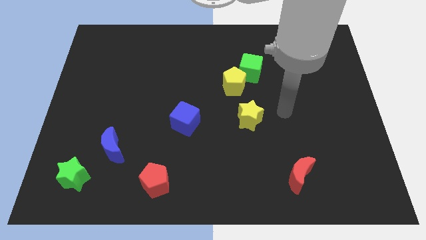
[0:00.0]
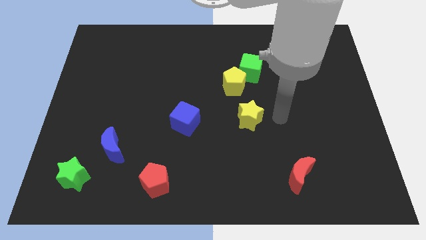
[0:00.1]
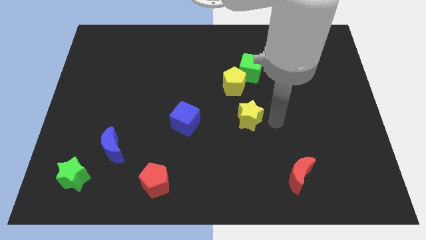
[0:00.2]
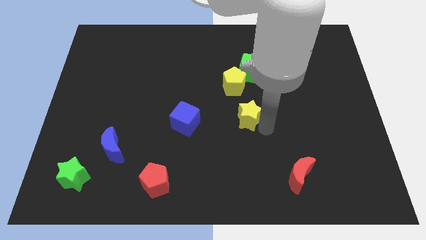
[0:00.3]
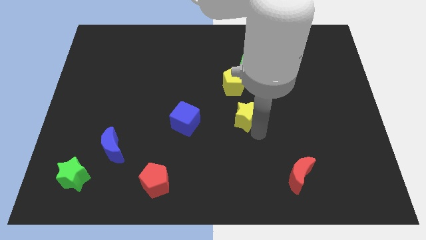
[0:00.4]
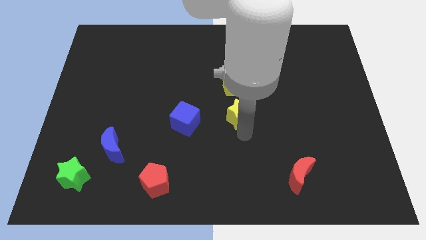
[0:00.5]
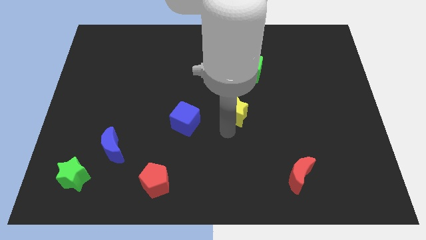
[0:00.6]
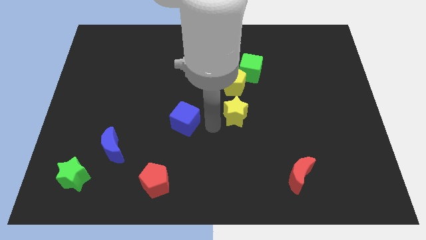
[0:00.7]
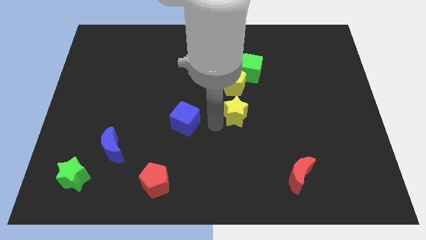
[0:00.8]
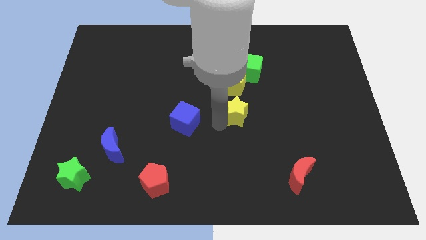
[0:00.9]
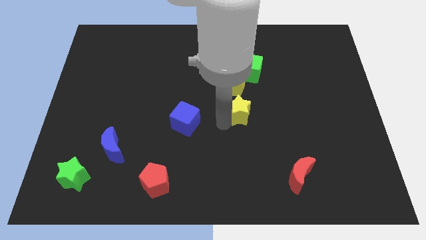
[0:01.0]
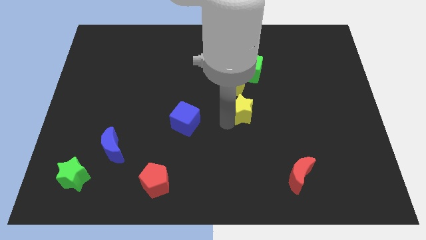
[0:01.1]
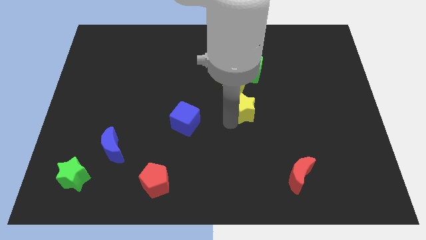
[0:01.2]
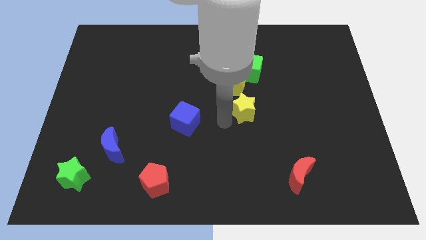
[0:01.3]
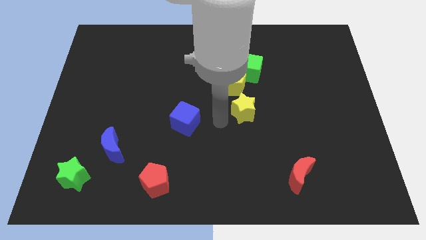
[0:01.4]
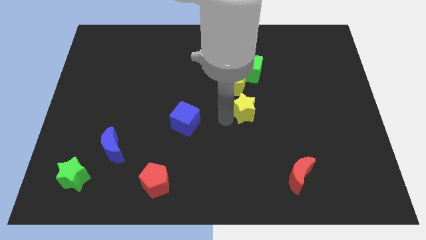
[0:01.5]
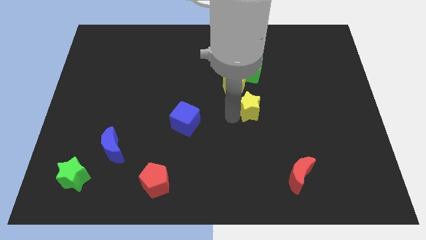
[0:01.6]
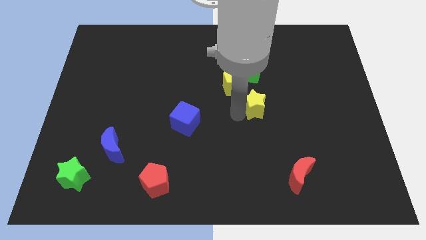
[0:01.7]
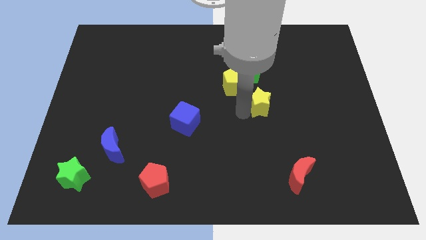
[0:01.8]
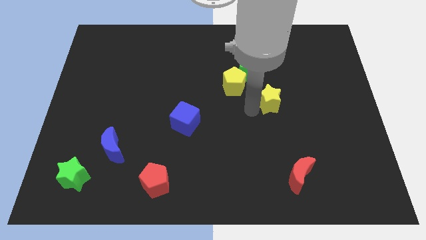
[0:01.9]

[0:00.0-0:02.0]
move the yellow star upwards and then right slightly

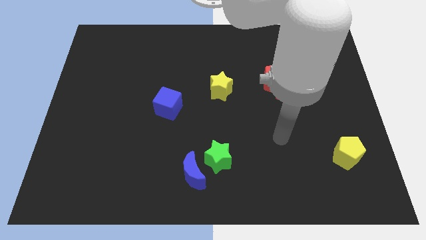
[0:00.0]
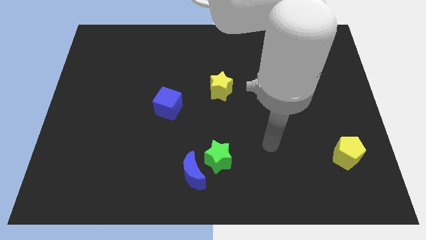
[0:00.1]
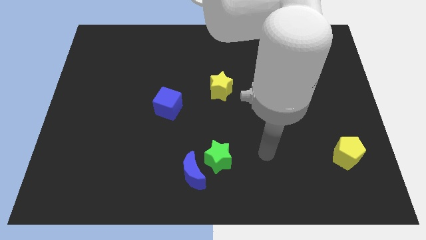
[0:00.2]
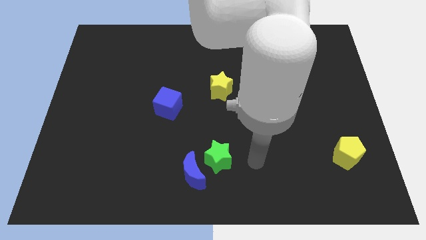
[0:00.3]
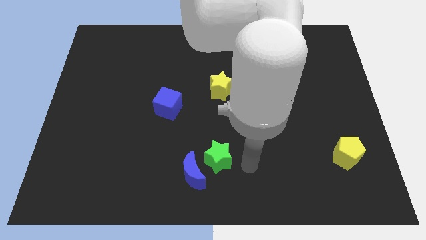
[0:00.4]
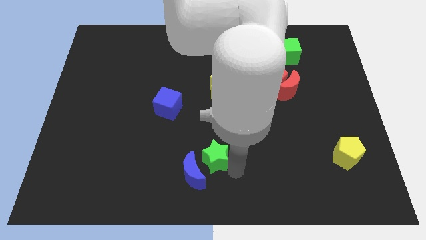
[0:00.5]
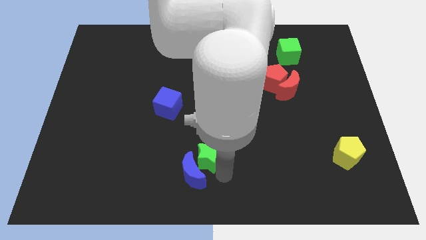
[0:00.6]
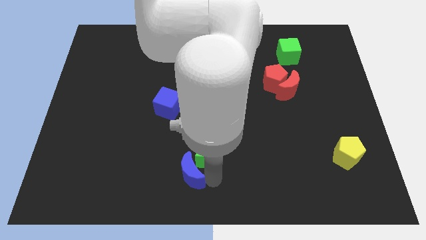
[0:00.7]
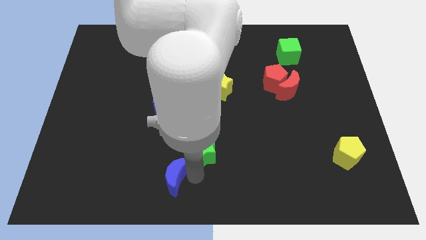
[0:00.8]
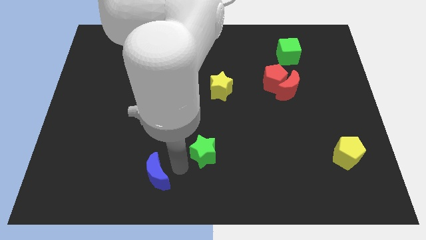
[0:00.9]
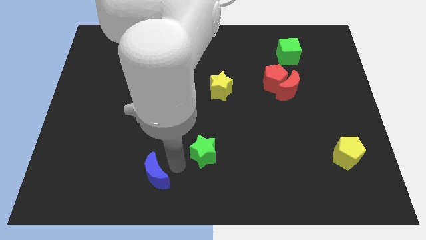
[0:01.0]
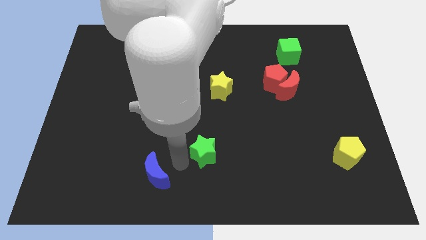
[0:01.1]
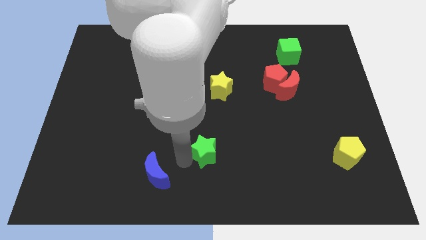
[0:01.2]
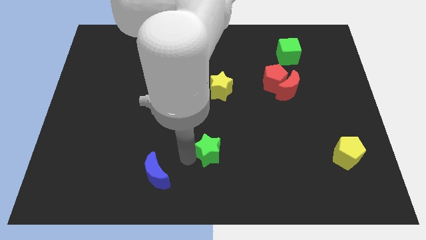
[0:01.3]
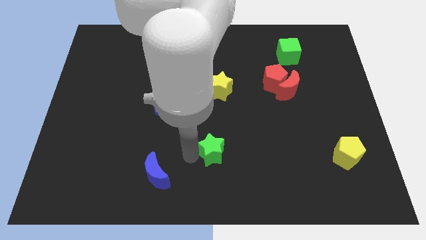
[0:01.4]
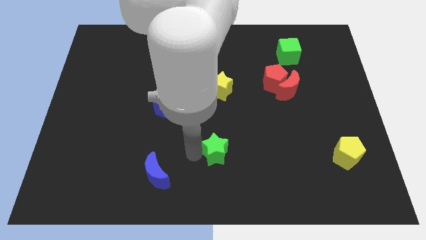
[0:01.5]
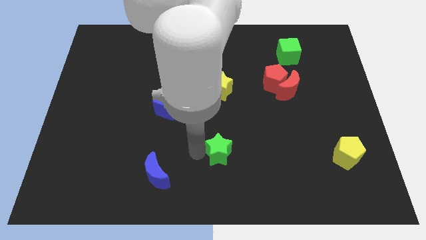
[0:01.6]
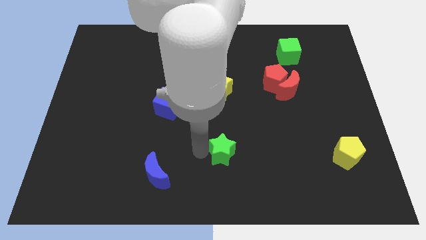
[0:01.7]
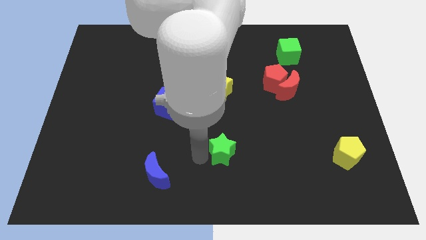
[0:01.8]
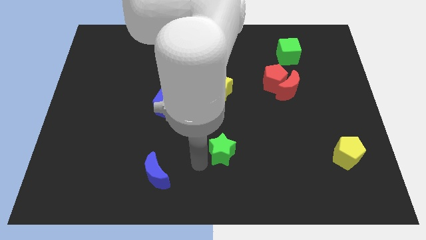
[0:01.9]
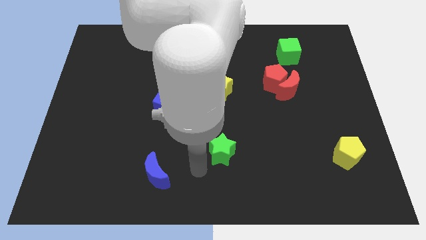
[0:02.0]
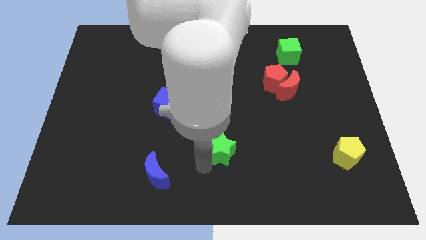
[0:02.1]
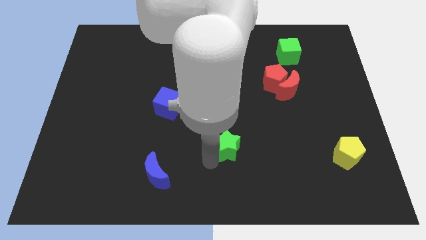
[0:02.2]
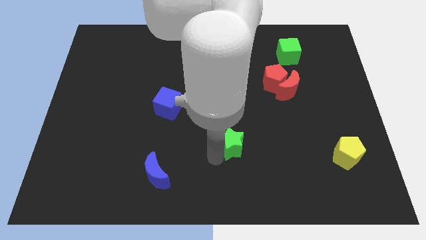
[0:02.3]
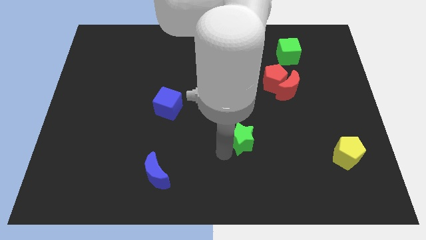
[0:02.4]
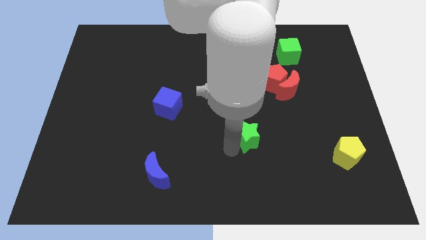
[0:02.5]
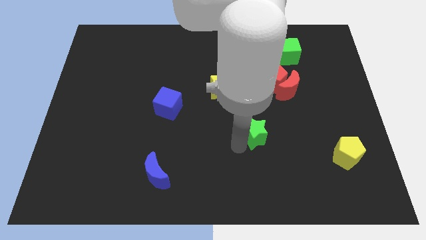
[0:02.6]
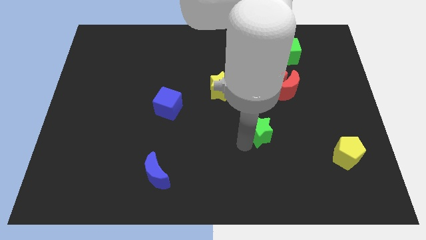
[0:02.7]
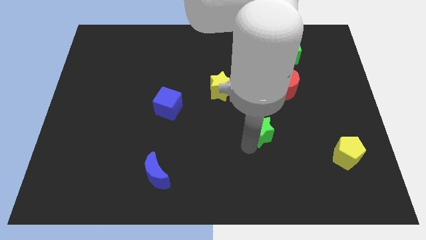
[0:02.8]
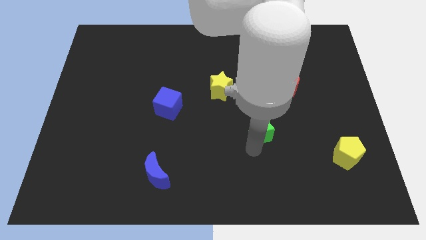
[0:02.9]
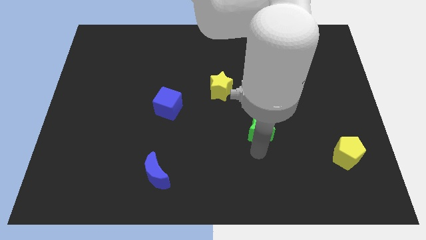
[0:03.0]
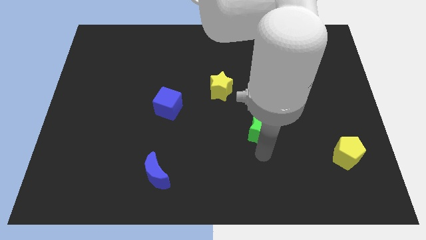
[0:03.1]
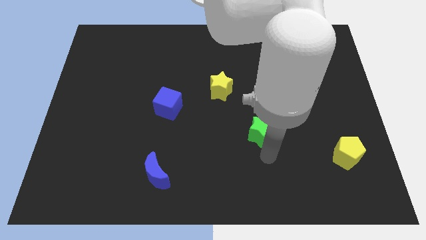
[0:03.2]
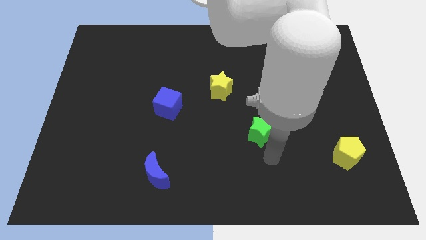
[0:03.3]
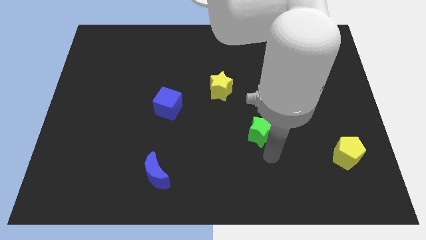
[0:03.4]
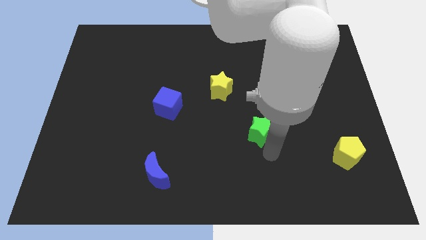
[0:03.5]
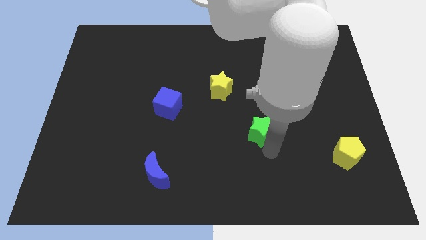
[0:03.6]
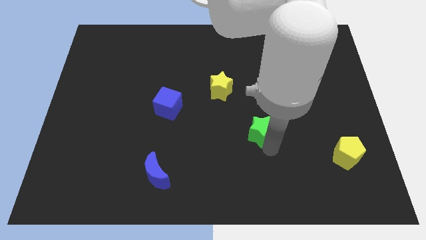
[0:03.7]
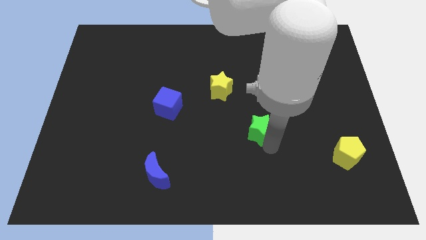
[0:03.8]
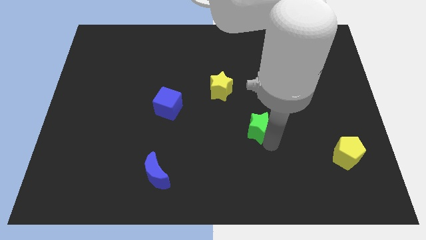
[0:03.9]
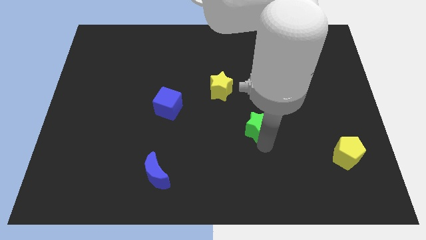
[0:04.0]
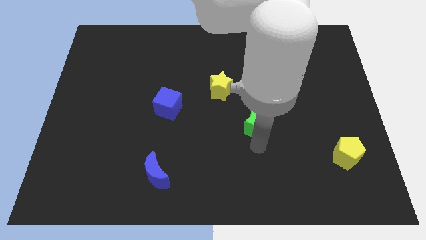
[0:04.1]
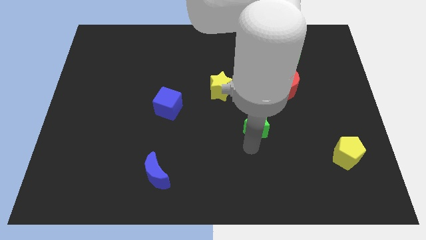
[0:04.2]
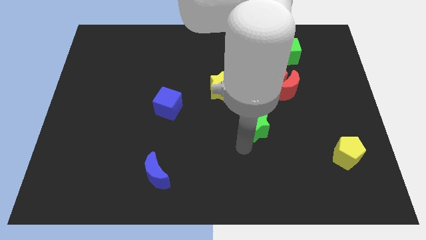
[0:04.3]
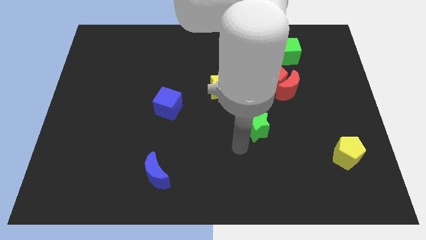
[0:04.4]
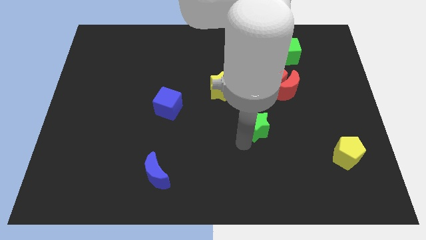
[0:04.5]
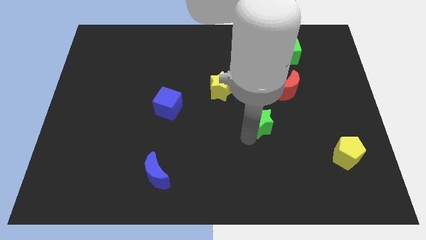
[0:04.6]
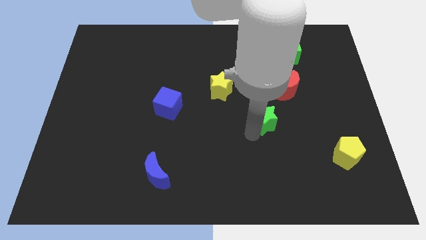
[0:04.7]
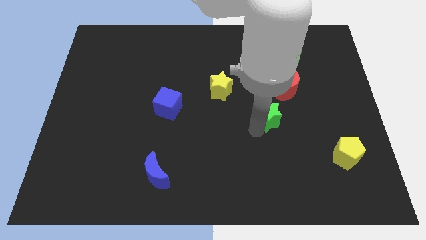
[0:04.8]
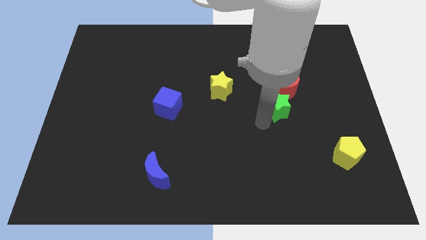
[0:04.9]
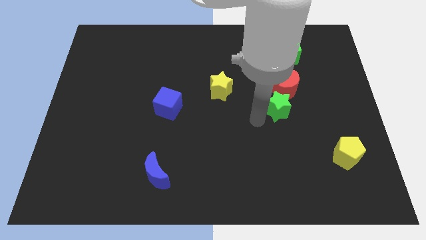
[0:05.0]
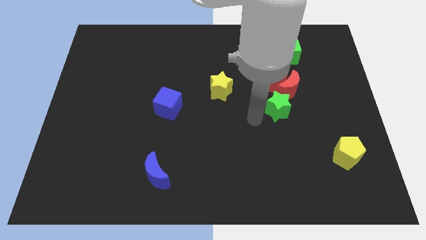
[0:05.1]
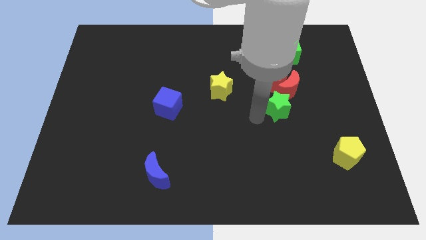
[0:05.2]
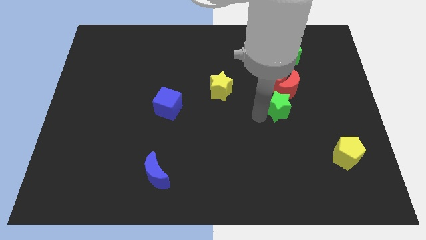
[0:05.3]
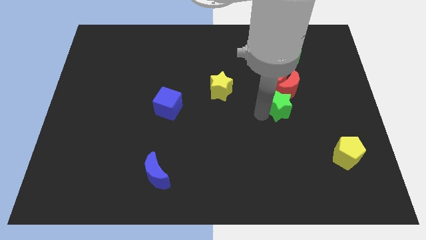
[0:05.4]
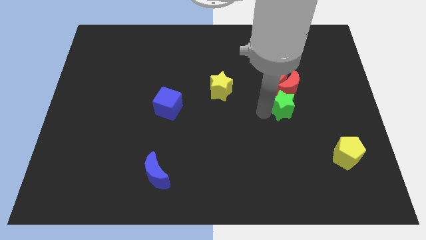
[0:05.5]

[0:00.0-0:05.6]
push the green star diagonally up and to the right

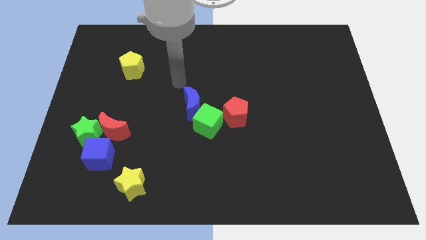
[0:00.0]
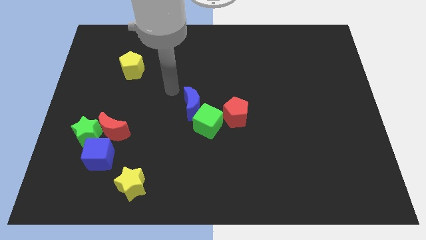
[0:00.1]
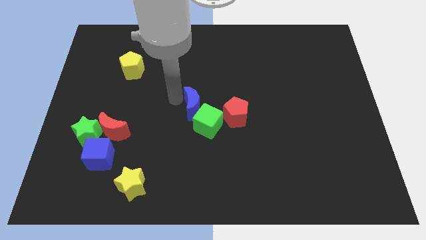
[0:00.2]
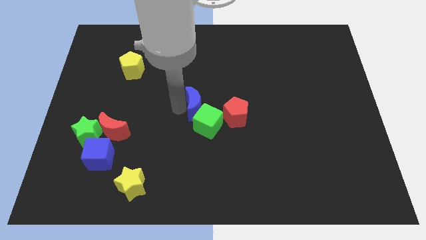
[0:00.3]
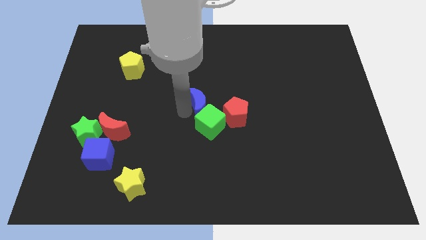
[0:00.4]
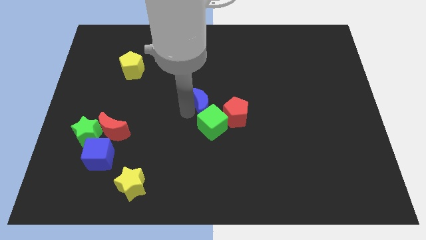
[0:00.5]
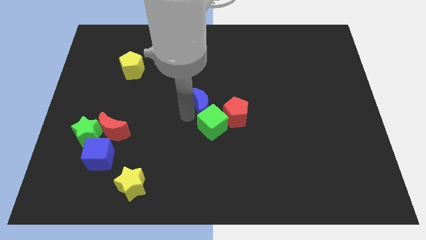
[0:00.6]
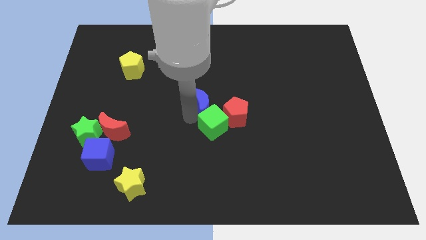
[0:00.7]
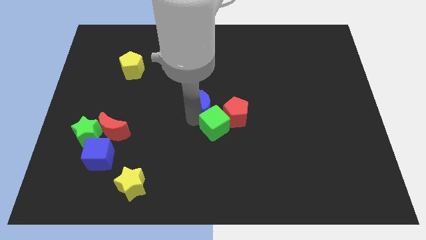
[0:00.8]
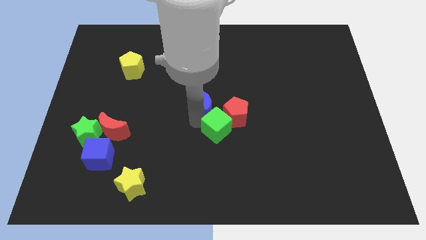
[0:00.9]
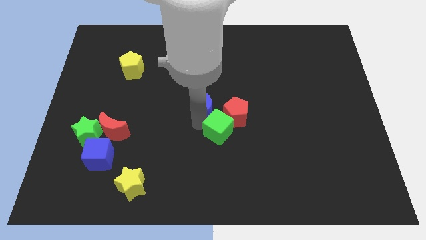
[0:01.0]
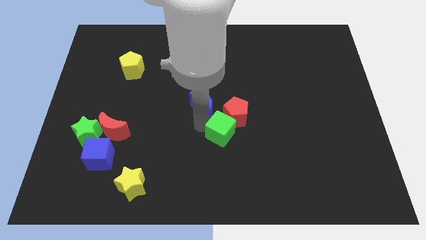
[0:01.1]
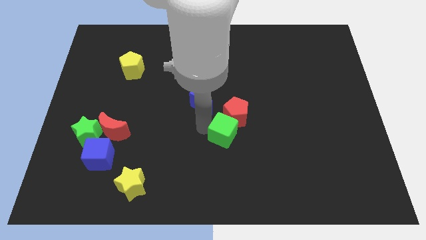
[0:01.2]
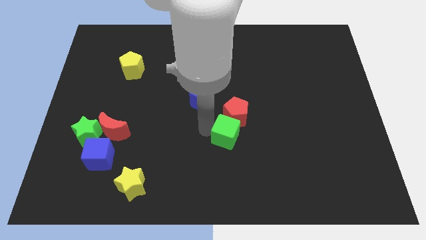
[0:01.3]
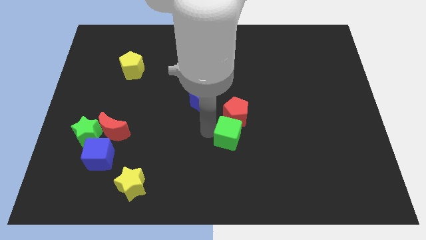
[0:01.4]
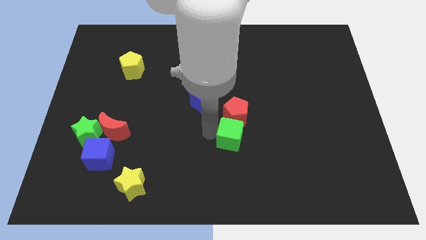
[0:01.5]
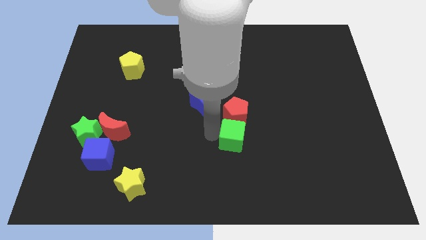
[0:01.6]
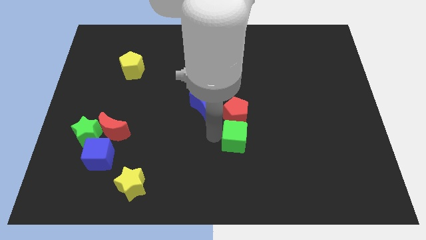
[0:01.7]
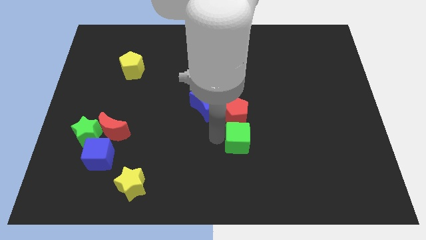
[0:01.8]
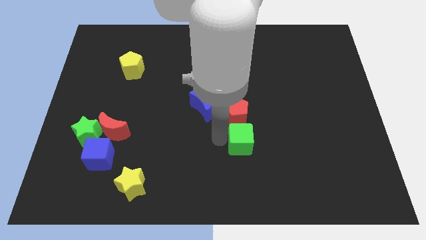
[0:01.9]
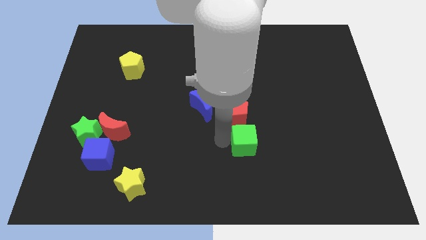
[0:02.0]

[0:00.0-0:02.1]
slightly move the green cube right
